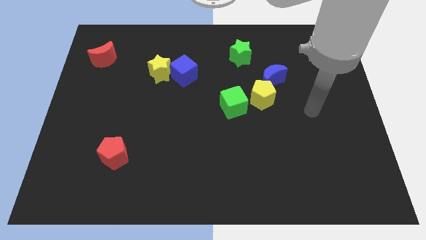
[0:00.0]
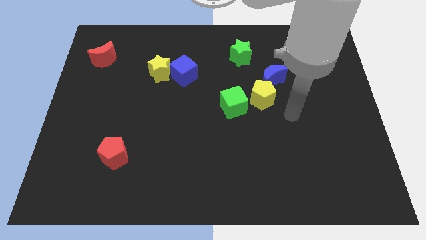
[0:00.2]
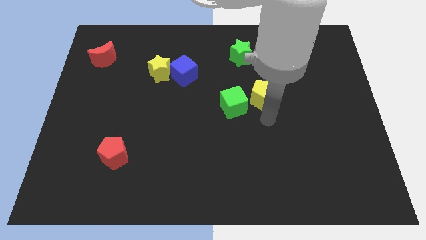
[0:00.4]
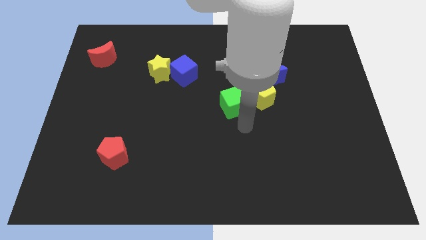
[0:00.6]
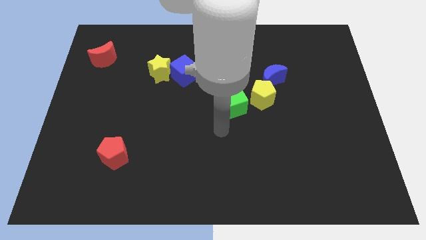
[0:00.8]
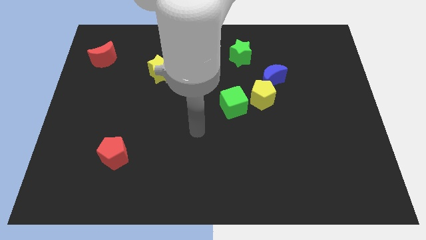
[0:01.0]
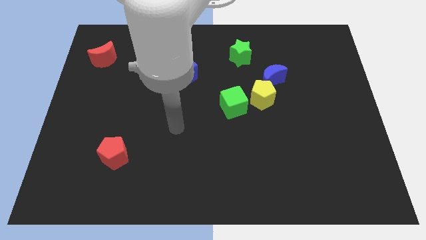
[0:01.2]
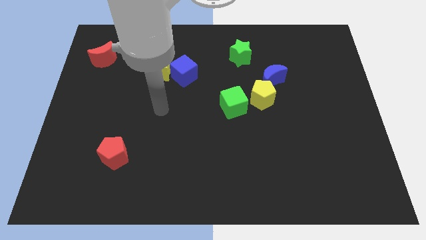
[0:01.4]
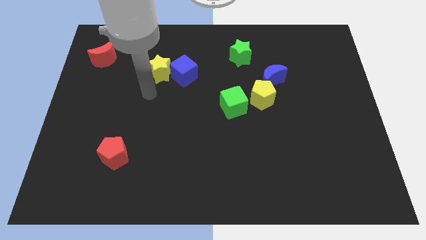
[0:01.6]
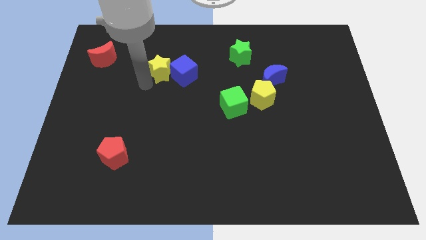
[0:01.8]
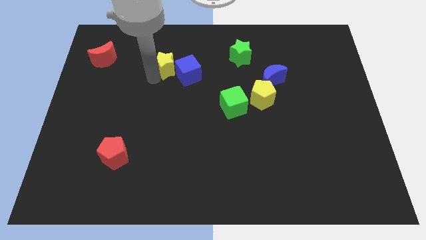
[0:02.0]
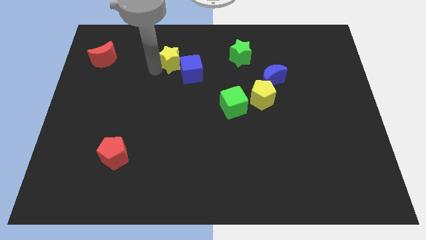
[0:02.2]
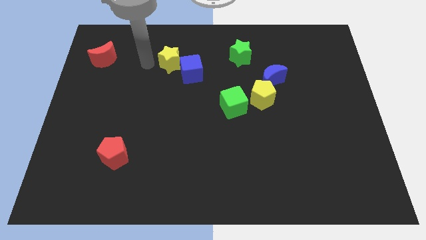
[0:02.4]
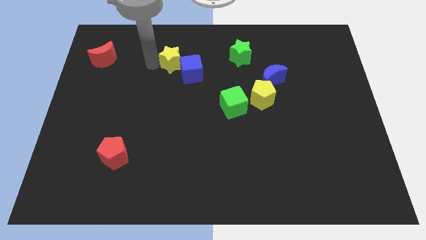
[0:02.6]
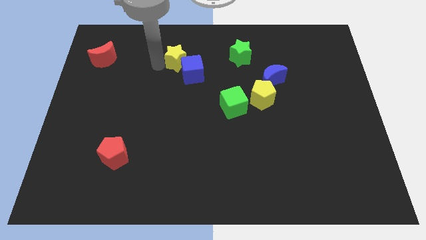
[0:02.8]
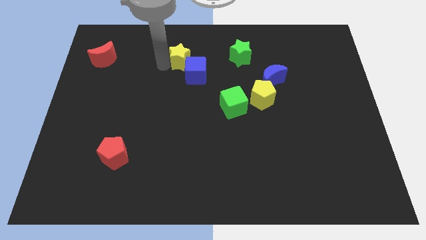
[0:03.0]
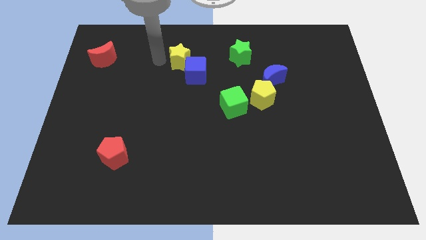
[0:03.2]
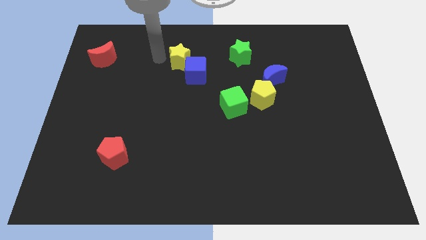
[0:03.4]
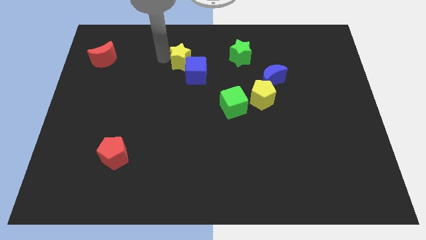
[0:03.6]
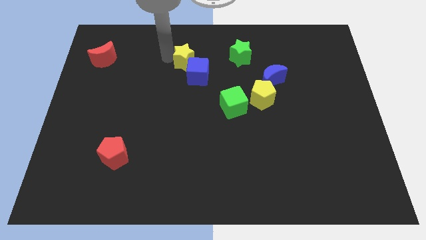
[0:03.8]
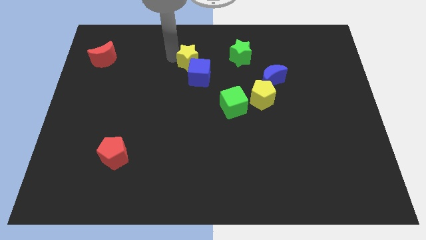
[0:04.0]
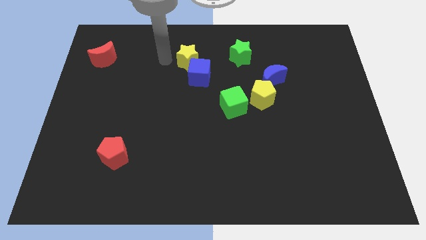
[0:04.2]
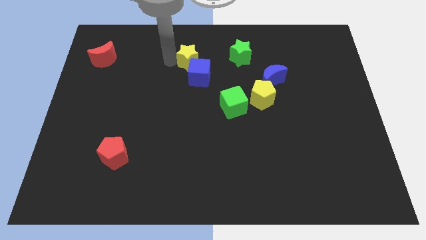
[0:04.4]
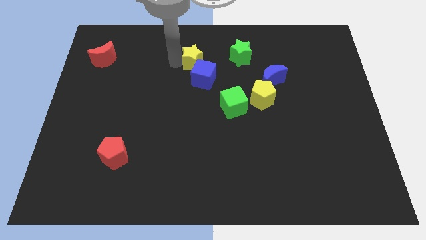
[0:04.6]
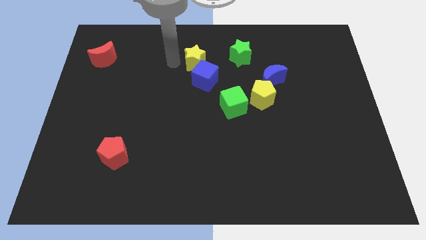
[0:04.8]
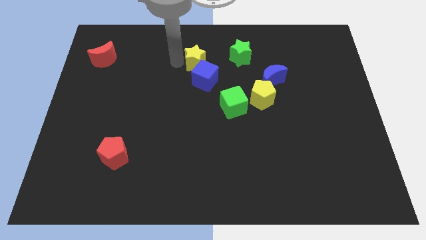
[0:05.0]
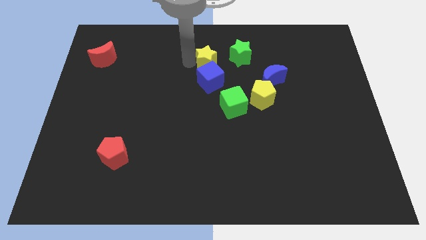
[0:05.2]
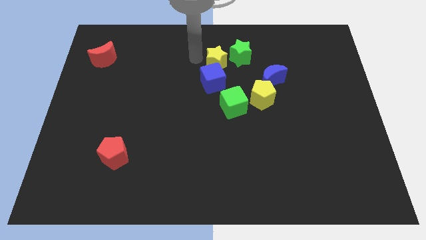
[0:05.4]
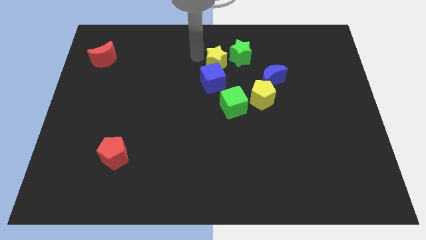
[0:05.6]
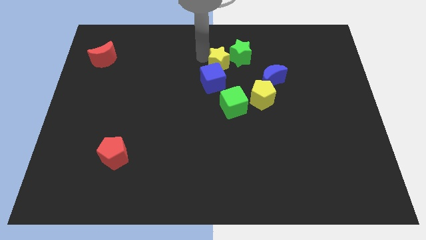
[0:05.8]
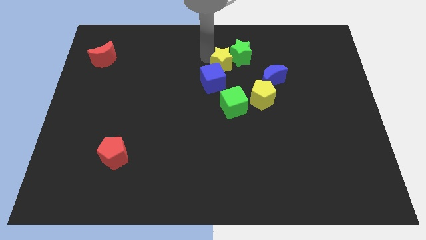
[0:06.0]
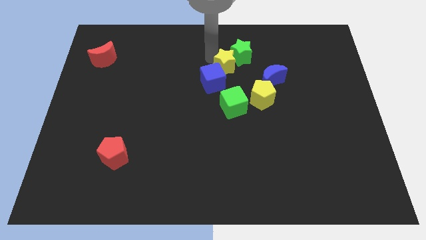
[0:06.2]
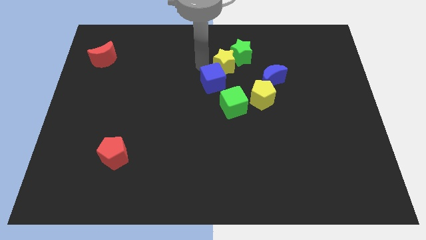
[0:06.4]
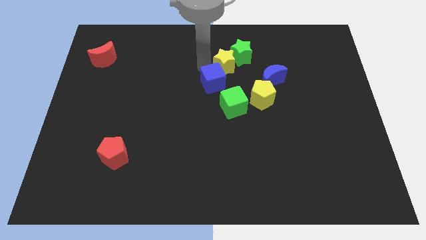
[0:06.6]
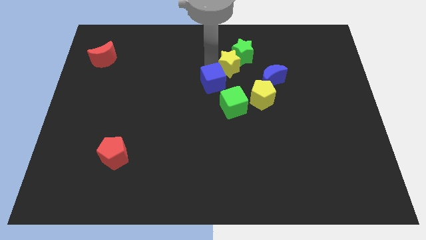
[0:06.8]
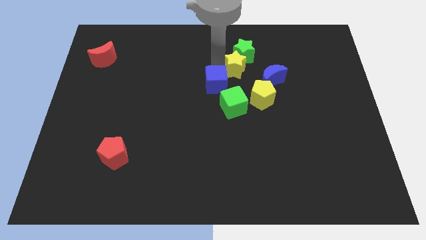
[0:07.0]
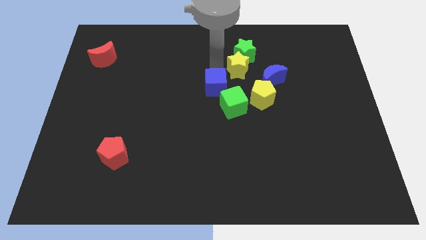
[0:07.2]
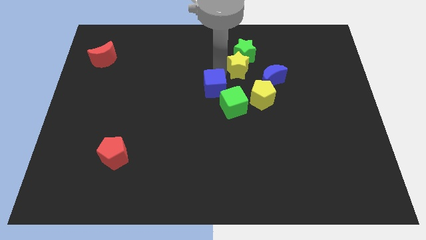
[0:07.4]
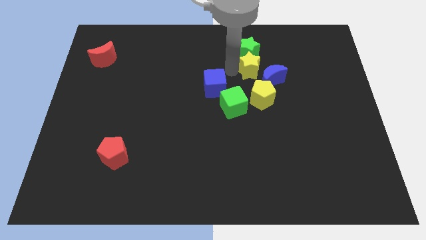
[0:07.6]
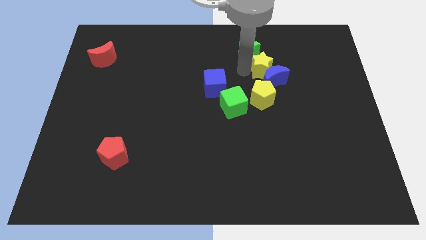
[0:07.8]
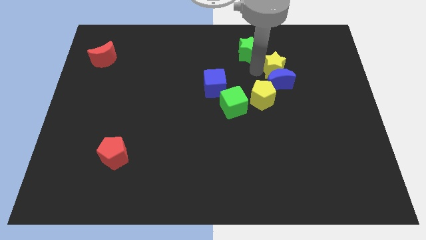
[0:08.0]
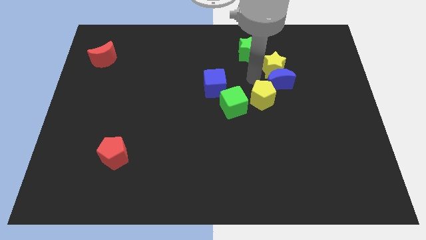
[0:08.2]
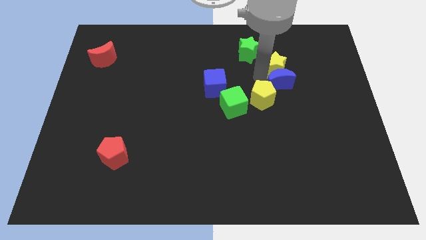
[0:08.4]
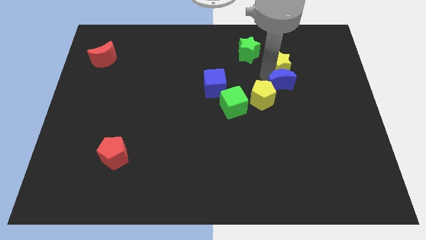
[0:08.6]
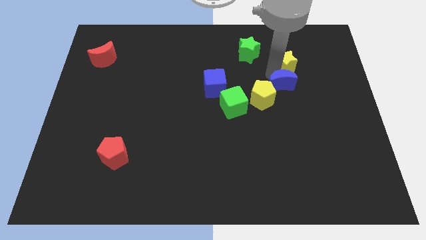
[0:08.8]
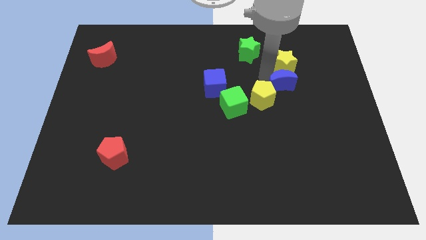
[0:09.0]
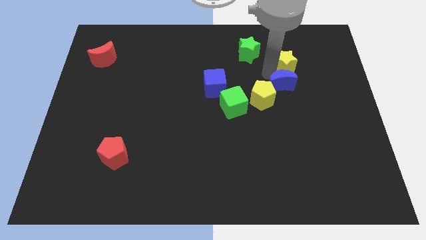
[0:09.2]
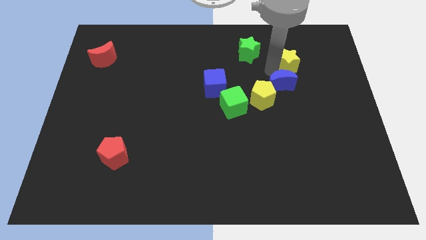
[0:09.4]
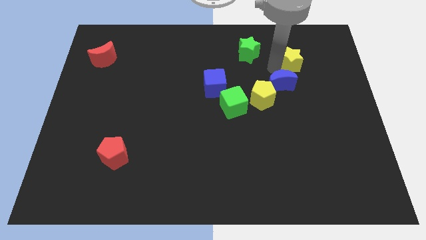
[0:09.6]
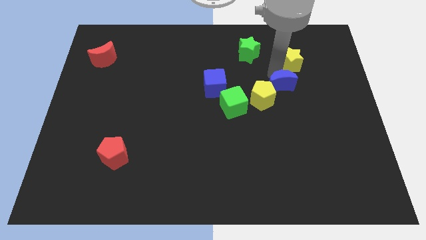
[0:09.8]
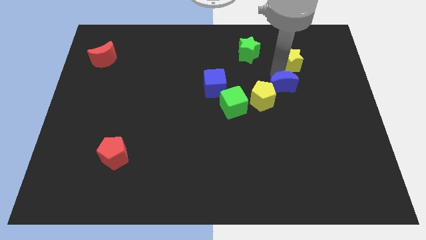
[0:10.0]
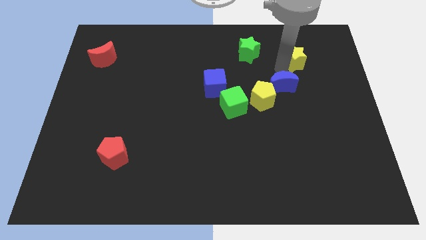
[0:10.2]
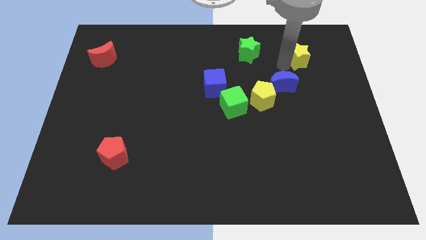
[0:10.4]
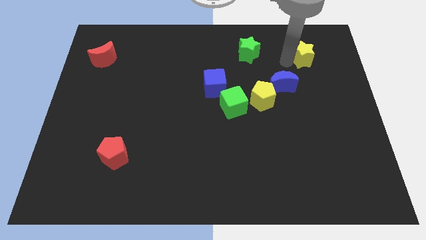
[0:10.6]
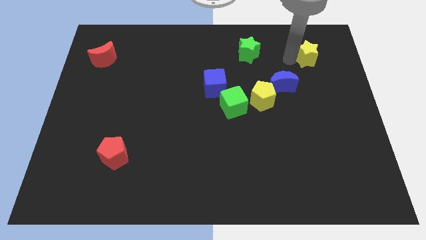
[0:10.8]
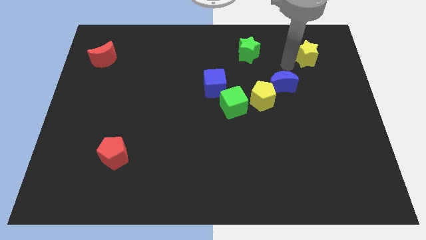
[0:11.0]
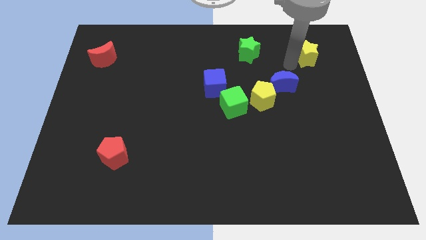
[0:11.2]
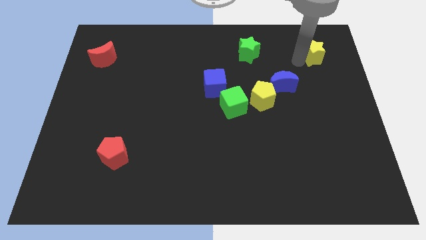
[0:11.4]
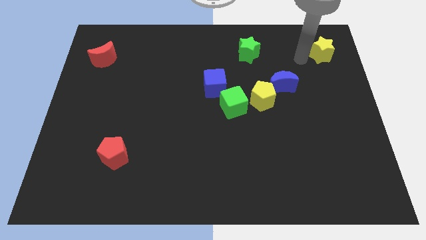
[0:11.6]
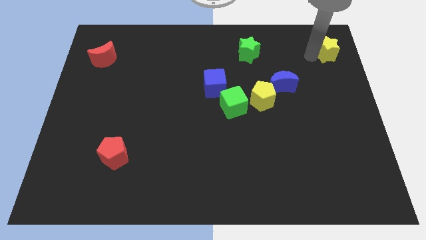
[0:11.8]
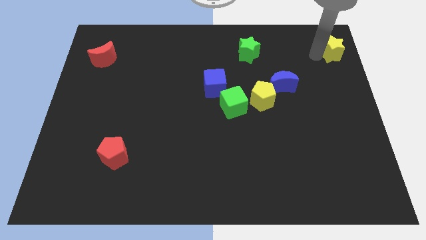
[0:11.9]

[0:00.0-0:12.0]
move the yellow star to the upper right corner

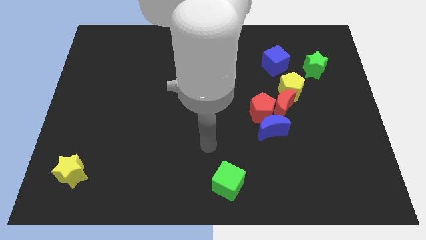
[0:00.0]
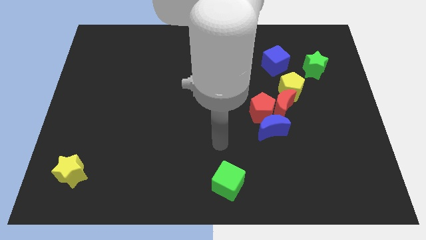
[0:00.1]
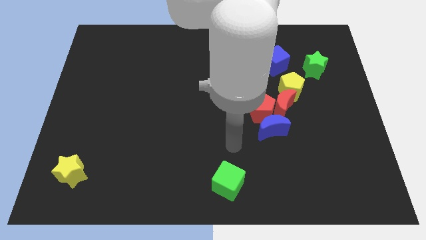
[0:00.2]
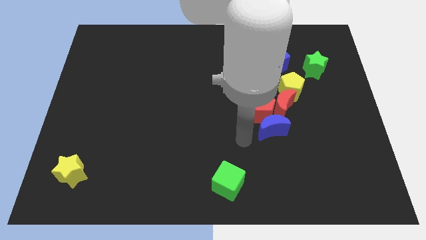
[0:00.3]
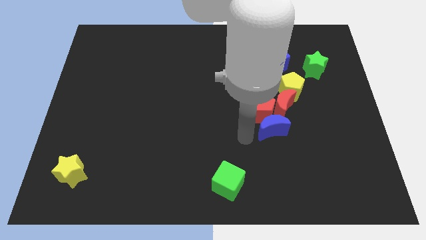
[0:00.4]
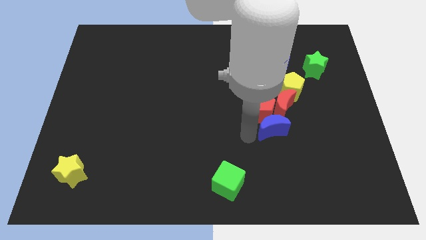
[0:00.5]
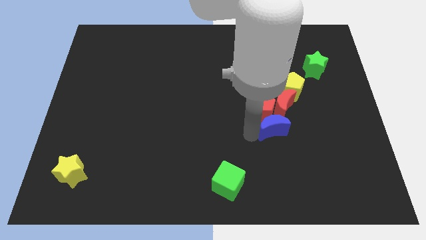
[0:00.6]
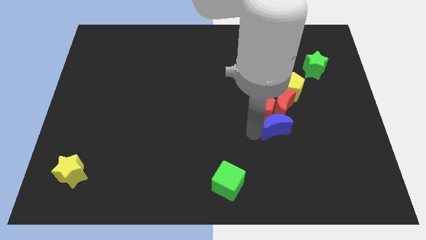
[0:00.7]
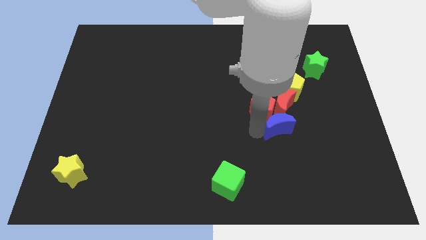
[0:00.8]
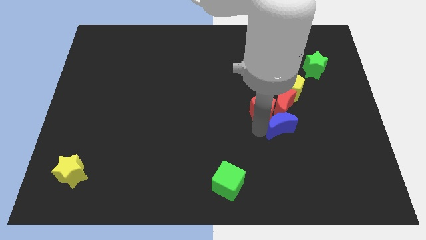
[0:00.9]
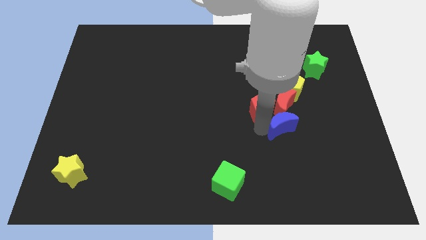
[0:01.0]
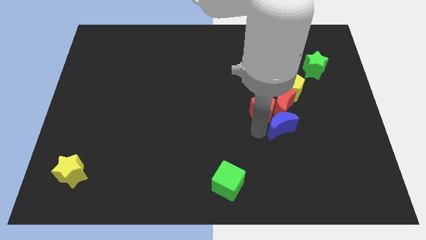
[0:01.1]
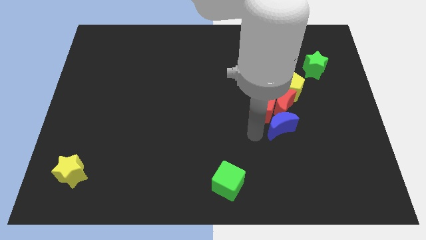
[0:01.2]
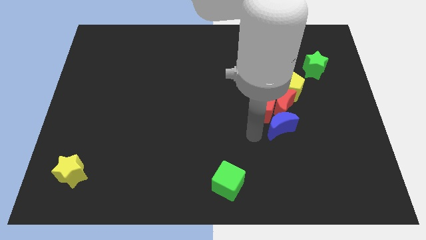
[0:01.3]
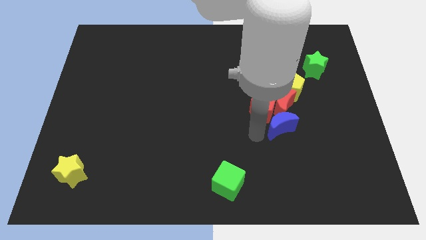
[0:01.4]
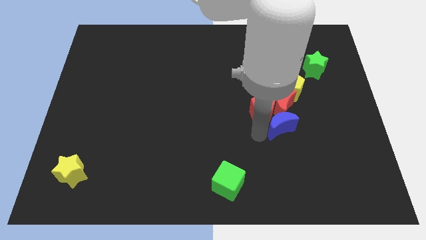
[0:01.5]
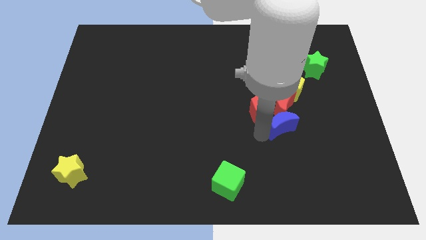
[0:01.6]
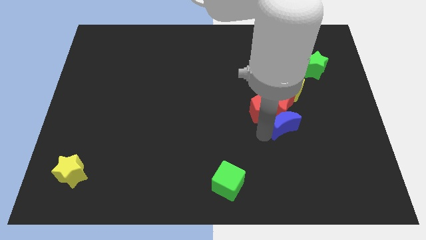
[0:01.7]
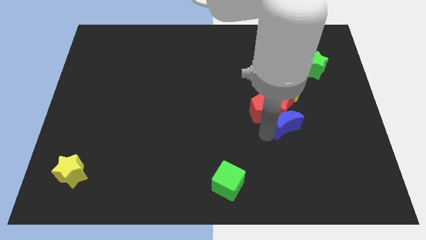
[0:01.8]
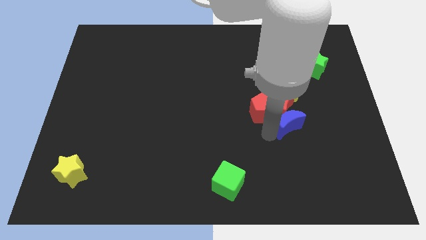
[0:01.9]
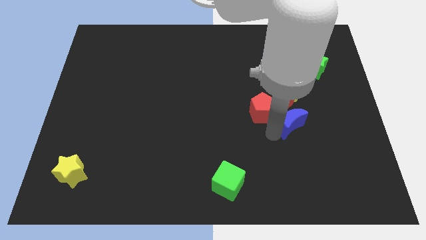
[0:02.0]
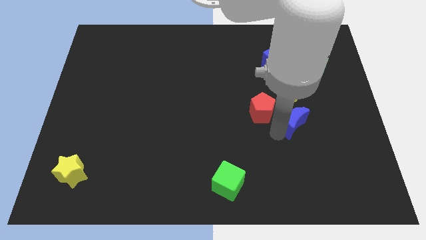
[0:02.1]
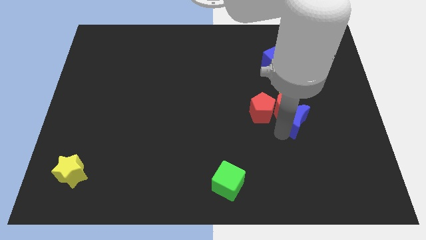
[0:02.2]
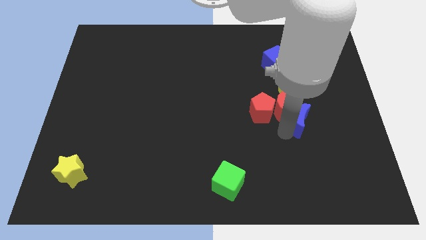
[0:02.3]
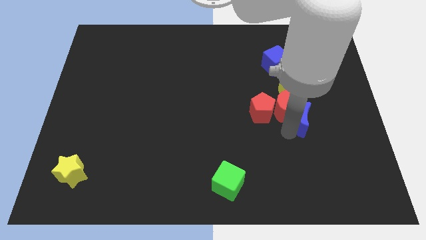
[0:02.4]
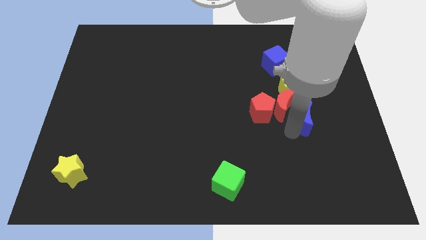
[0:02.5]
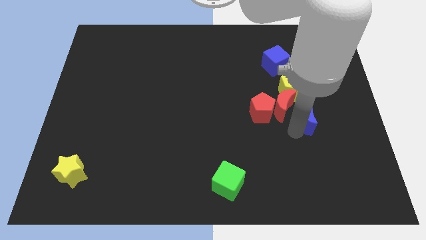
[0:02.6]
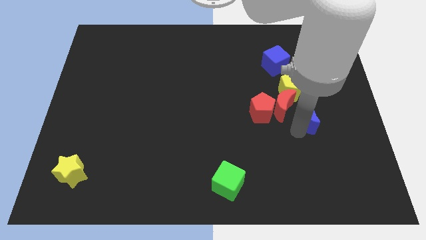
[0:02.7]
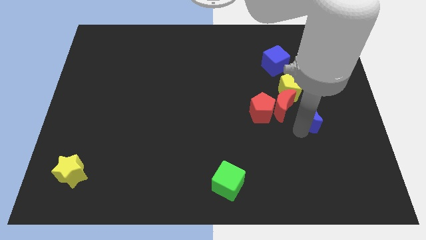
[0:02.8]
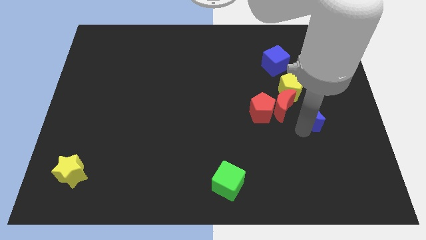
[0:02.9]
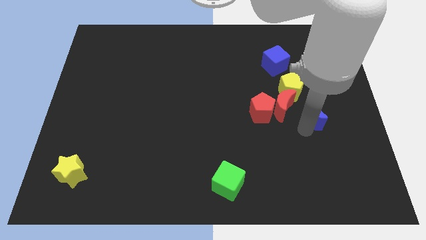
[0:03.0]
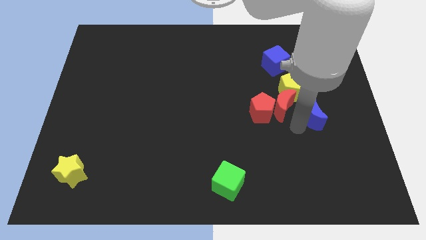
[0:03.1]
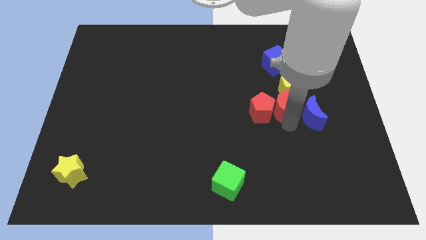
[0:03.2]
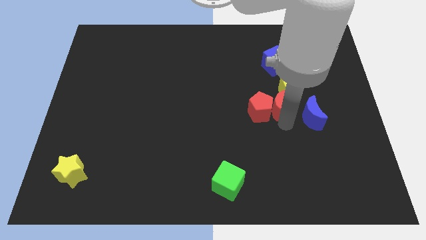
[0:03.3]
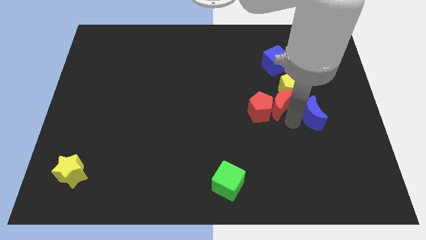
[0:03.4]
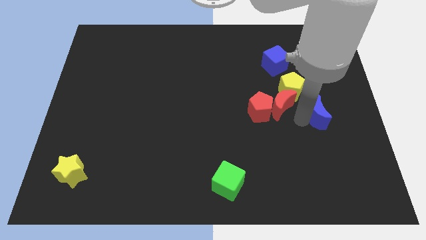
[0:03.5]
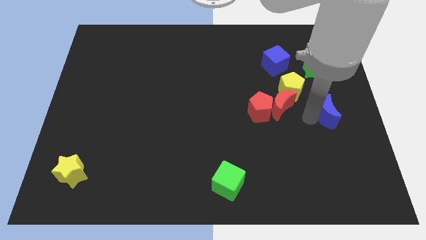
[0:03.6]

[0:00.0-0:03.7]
move the blue moon to the right side of the board
